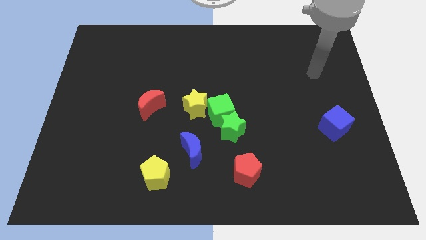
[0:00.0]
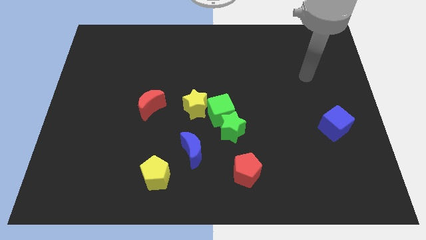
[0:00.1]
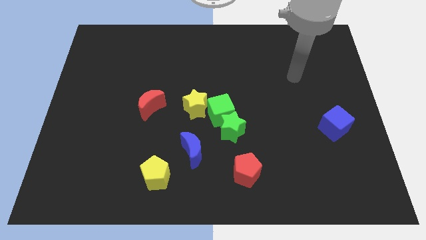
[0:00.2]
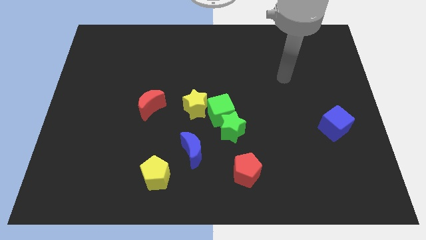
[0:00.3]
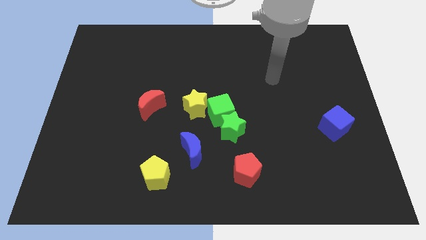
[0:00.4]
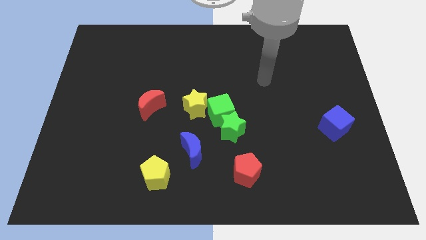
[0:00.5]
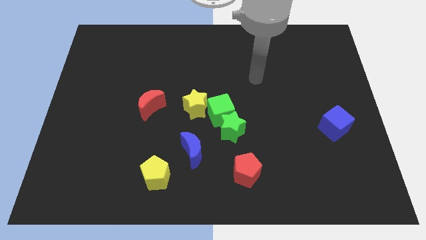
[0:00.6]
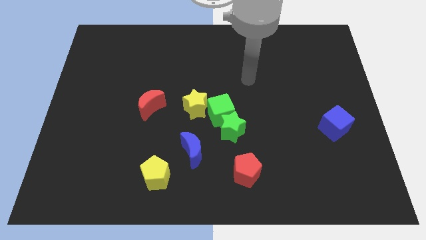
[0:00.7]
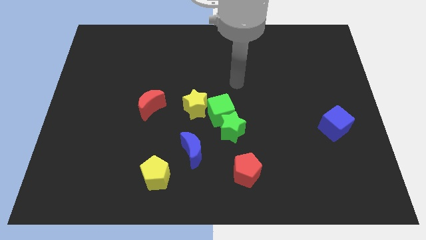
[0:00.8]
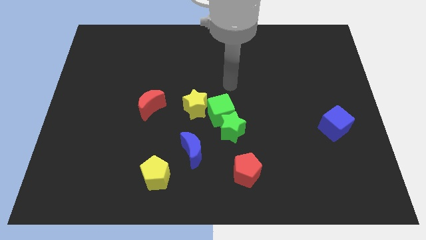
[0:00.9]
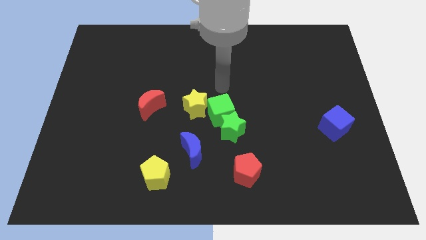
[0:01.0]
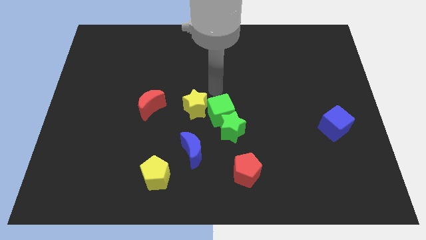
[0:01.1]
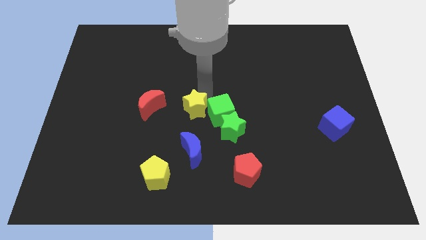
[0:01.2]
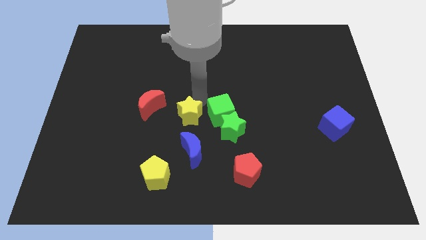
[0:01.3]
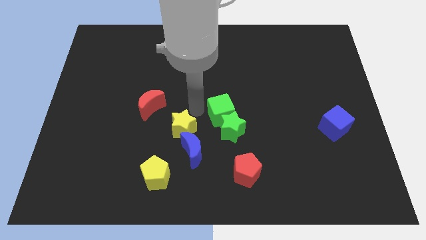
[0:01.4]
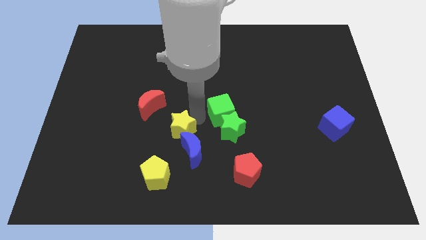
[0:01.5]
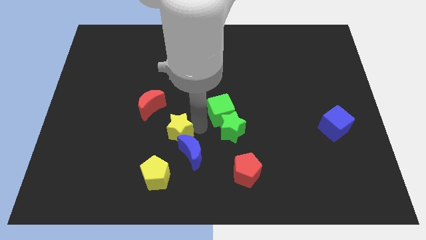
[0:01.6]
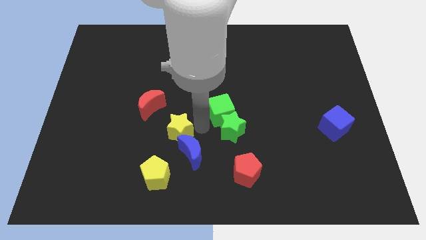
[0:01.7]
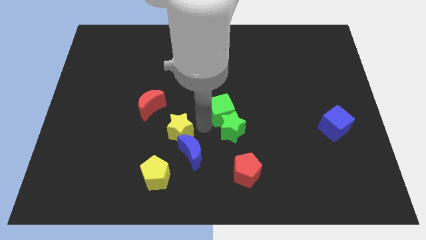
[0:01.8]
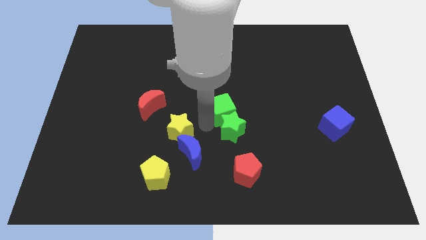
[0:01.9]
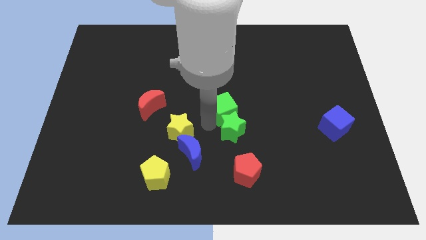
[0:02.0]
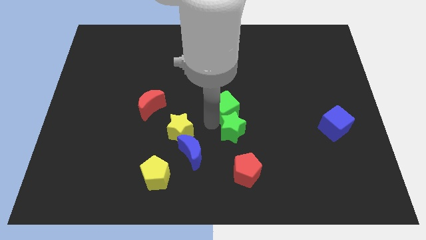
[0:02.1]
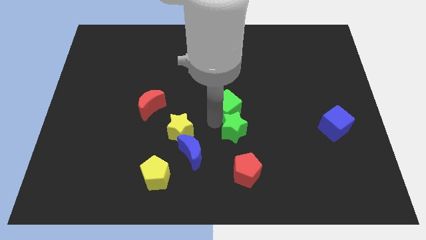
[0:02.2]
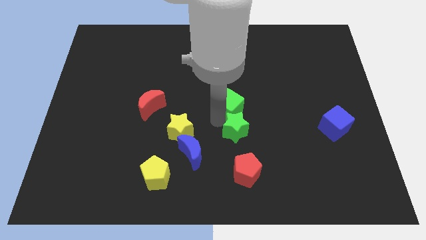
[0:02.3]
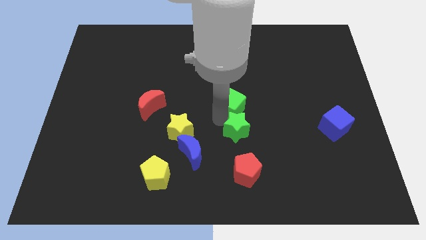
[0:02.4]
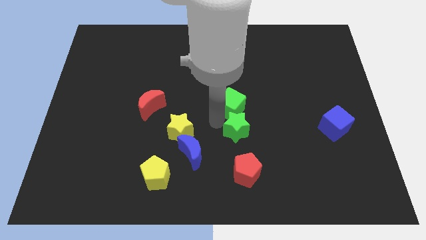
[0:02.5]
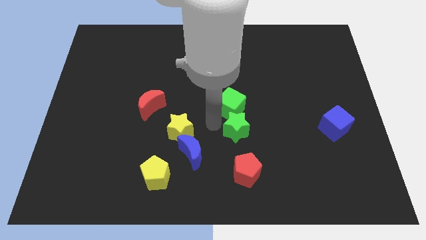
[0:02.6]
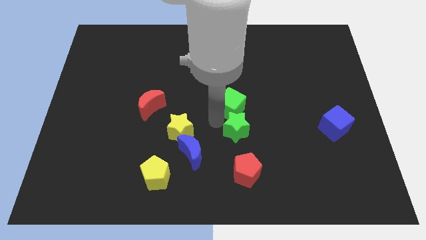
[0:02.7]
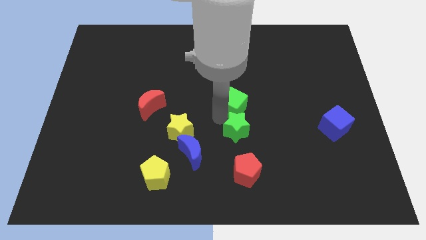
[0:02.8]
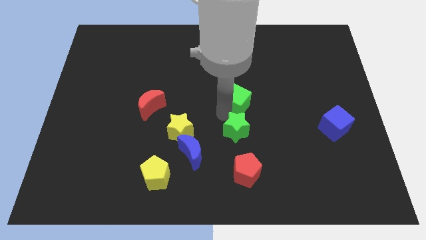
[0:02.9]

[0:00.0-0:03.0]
move the green cube away from the green star and yellow star

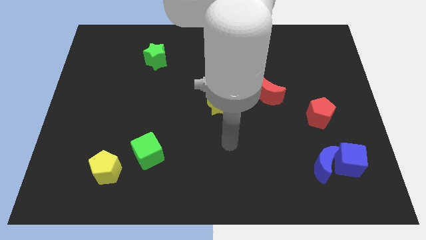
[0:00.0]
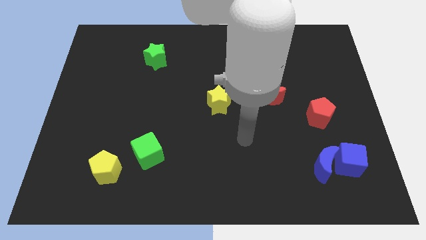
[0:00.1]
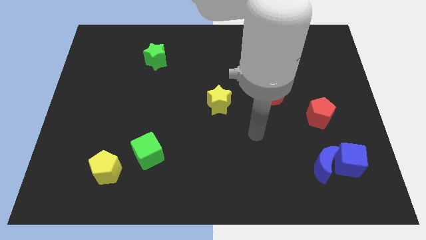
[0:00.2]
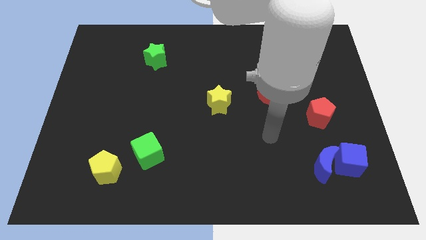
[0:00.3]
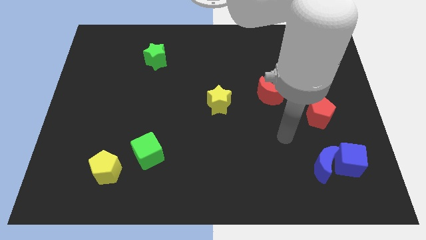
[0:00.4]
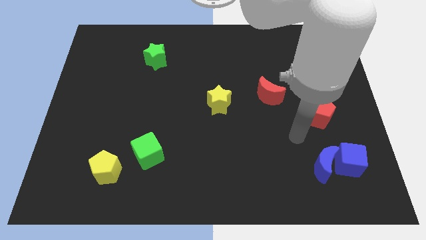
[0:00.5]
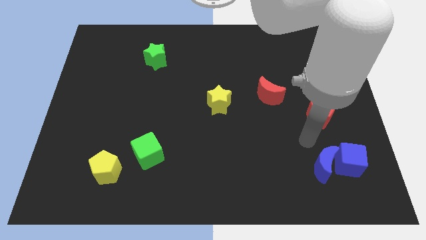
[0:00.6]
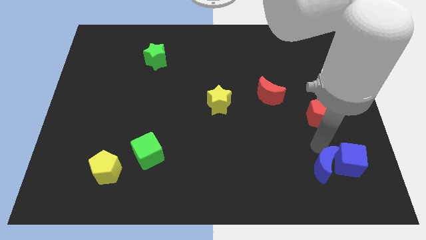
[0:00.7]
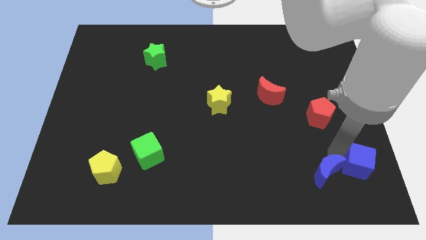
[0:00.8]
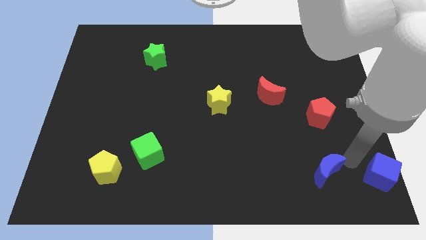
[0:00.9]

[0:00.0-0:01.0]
pull the blue moon apart from the blue cube

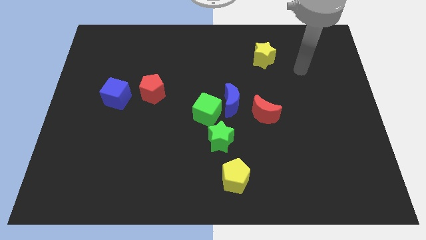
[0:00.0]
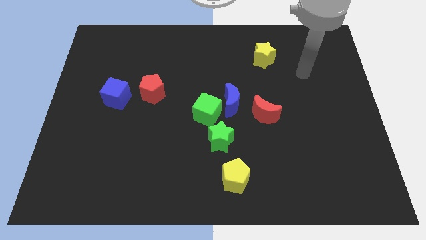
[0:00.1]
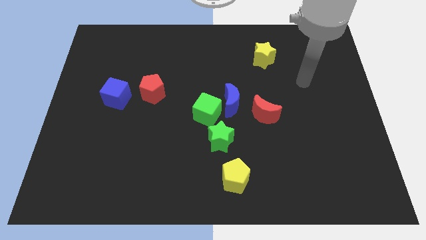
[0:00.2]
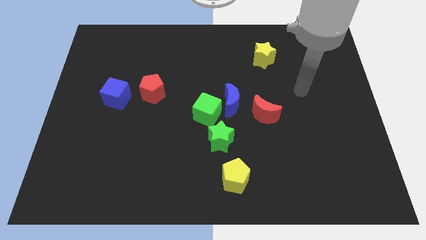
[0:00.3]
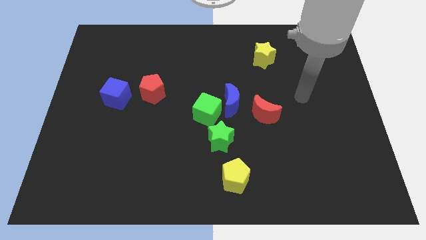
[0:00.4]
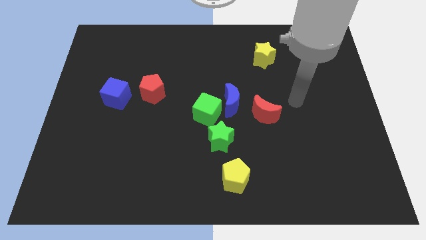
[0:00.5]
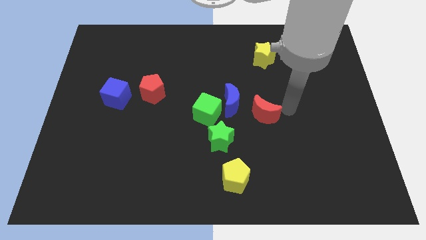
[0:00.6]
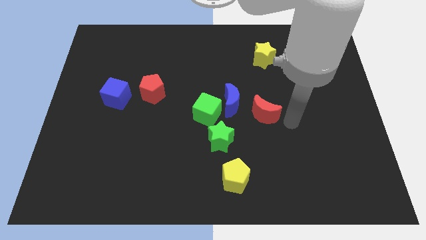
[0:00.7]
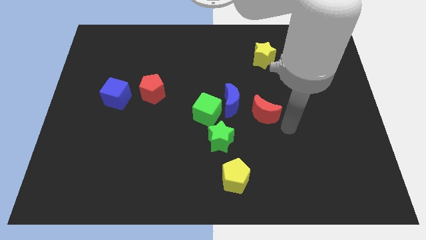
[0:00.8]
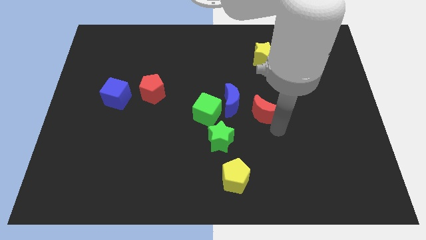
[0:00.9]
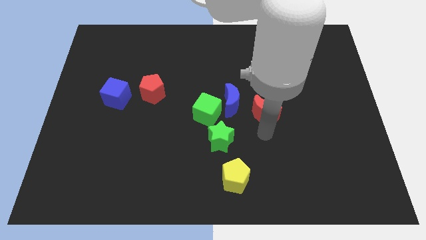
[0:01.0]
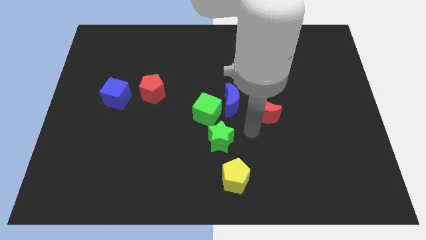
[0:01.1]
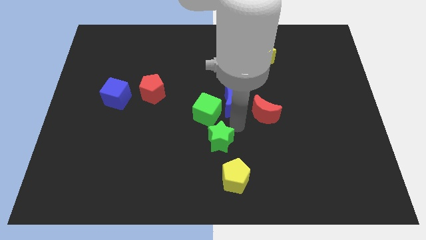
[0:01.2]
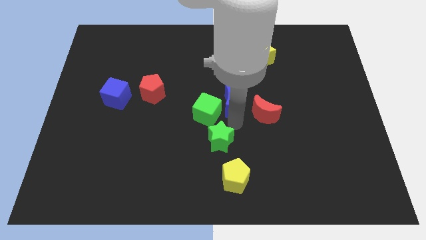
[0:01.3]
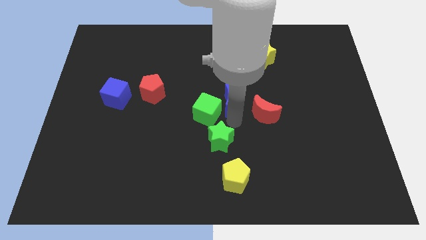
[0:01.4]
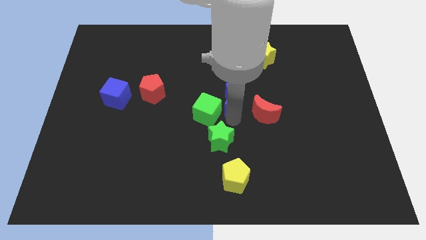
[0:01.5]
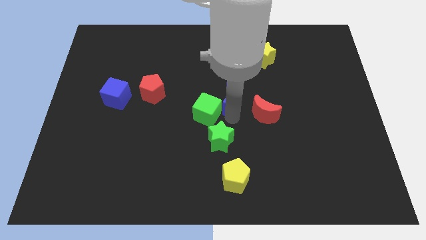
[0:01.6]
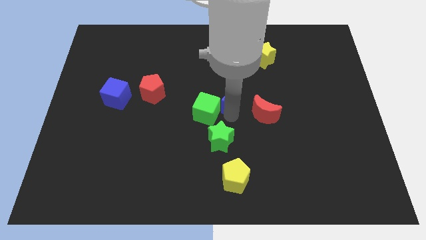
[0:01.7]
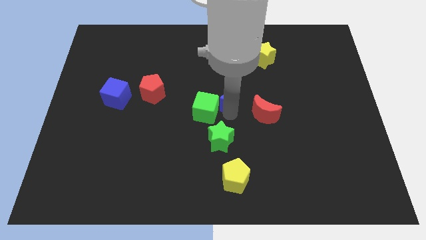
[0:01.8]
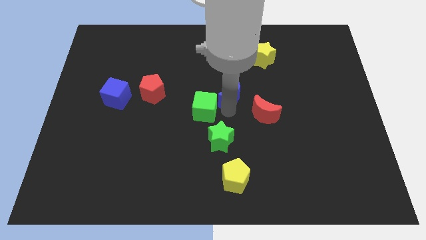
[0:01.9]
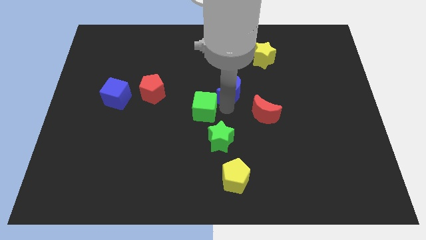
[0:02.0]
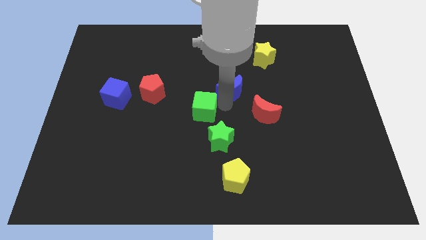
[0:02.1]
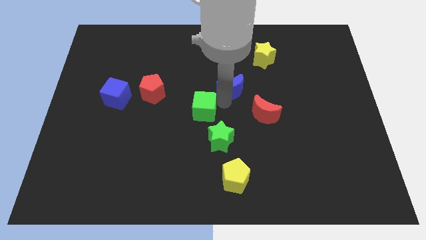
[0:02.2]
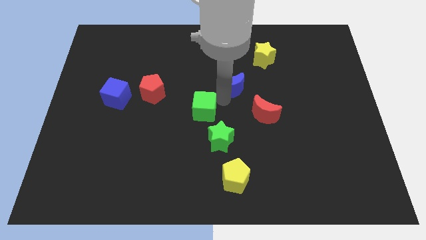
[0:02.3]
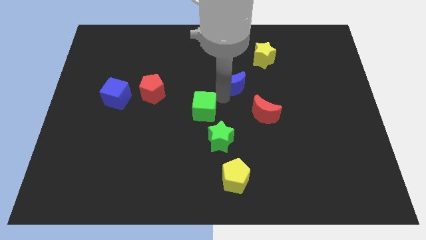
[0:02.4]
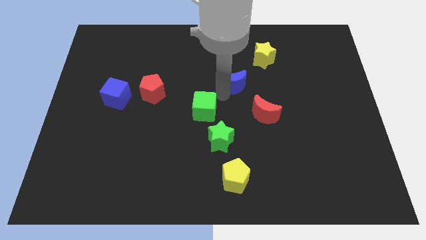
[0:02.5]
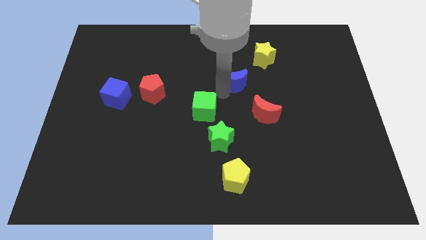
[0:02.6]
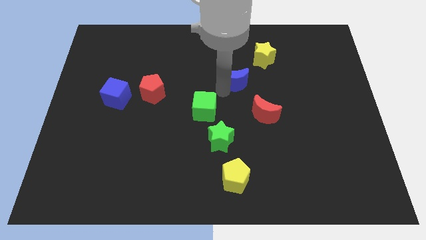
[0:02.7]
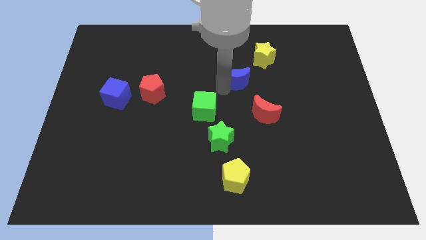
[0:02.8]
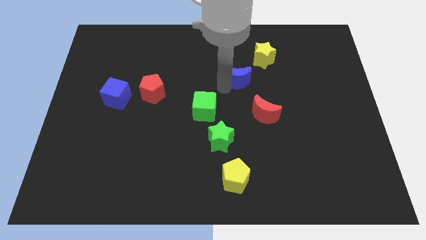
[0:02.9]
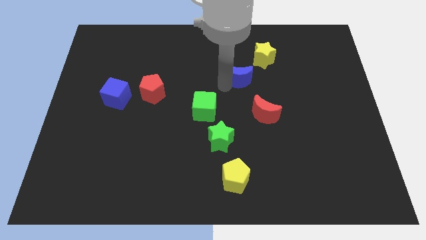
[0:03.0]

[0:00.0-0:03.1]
pull the blue moon apart from the green cube and red moon

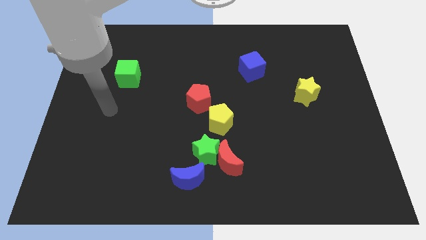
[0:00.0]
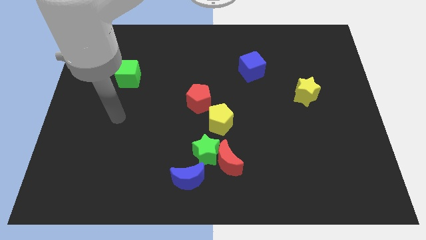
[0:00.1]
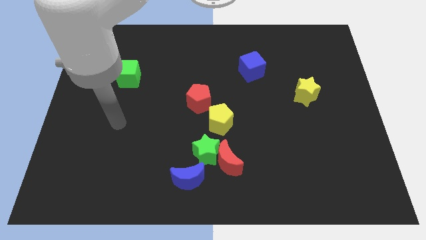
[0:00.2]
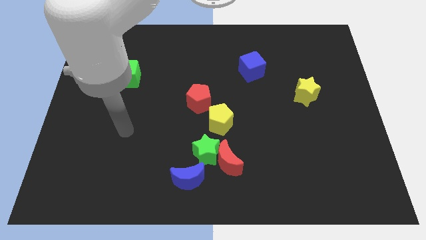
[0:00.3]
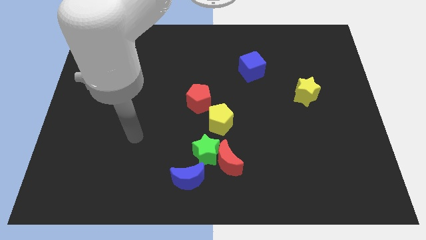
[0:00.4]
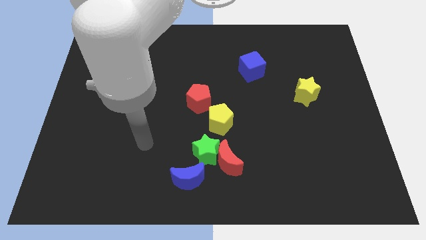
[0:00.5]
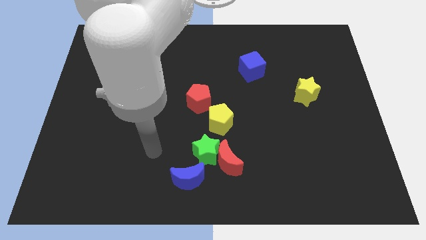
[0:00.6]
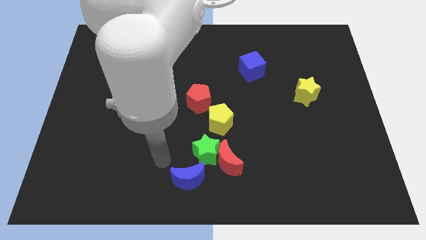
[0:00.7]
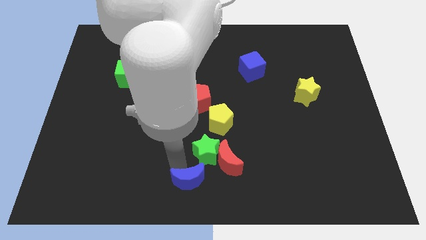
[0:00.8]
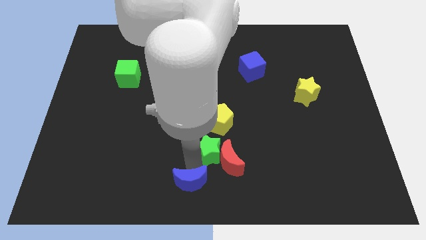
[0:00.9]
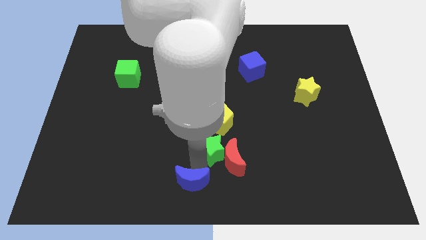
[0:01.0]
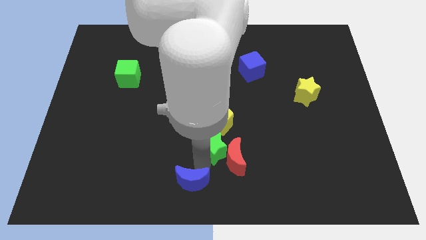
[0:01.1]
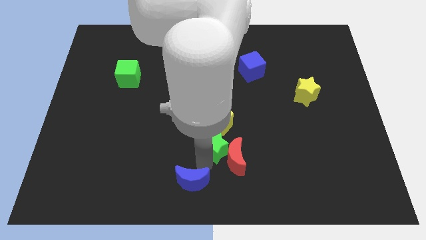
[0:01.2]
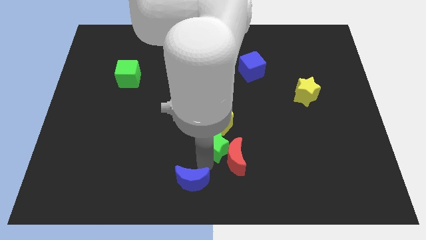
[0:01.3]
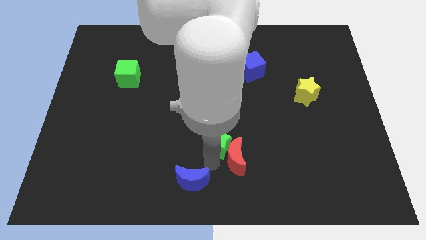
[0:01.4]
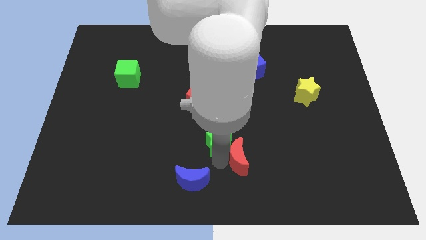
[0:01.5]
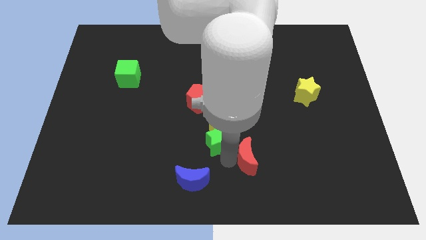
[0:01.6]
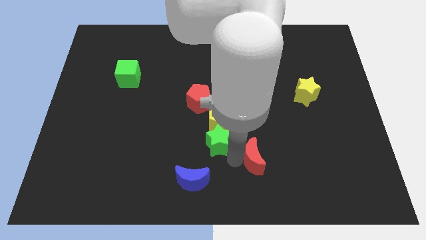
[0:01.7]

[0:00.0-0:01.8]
separate the red moon from the green star and blue moon
